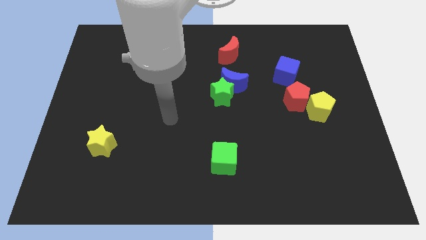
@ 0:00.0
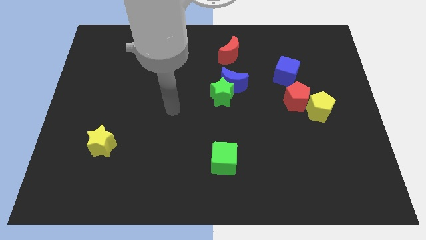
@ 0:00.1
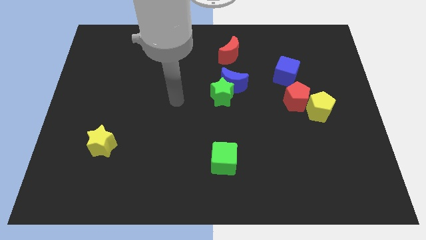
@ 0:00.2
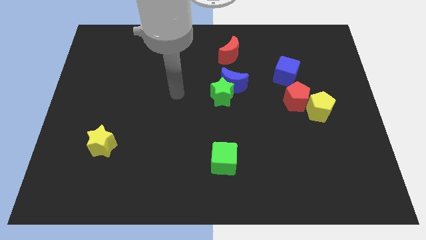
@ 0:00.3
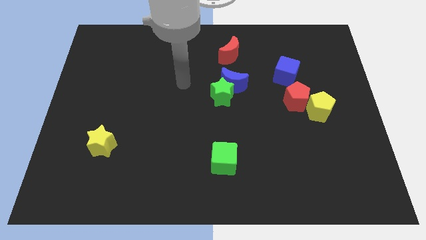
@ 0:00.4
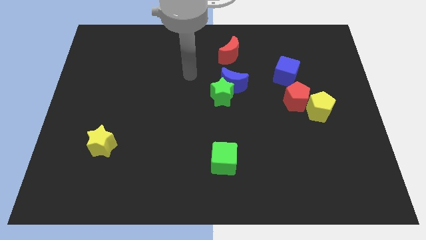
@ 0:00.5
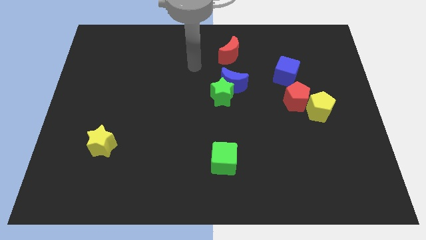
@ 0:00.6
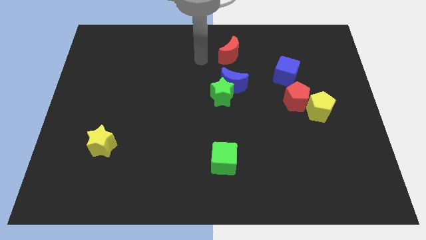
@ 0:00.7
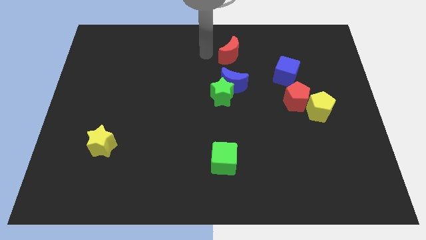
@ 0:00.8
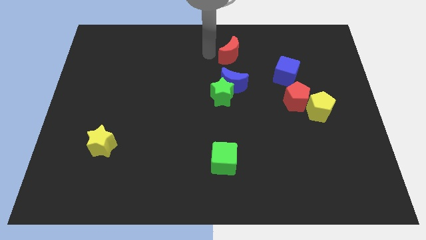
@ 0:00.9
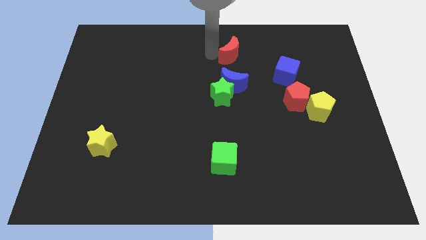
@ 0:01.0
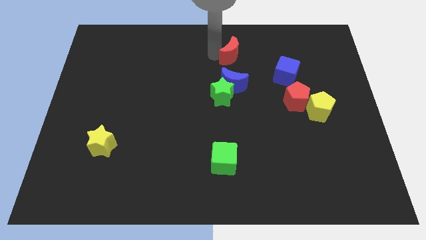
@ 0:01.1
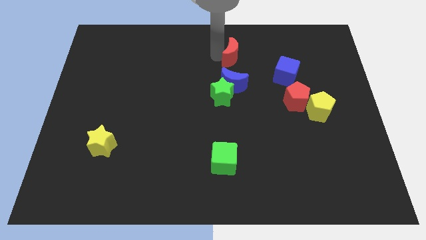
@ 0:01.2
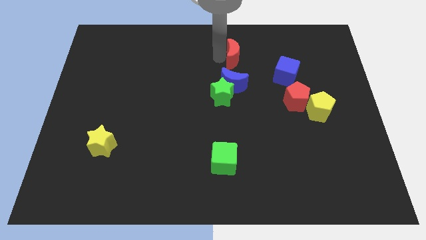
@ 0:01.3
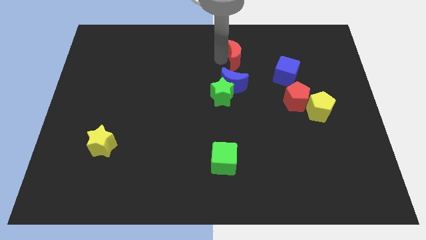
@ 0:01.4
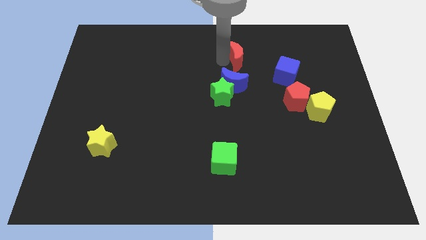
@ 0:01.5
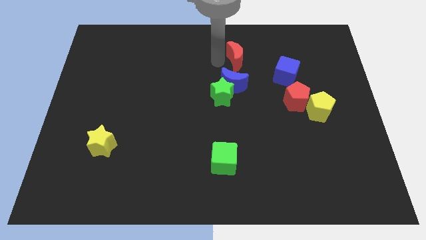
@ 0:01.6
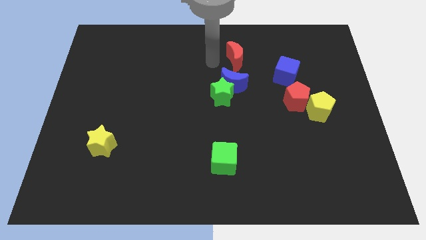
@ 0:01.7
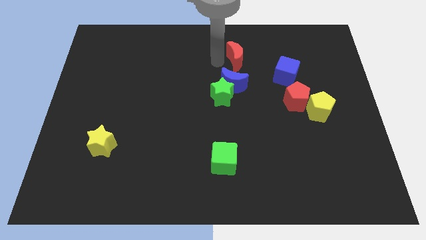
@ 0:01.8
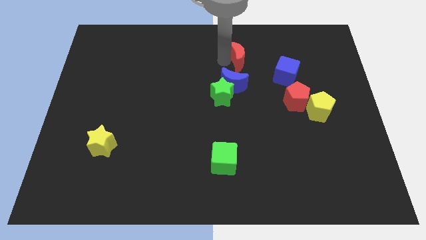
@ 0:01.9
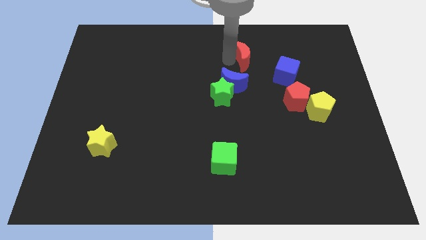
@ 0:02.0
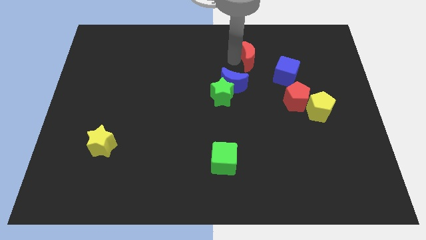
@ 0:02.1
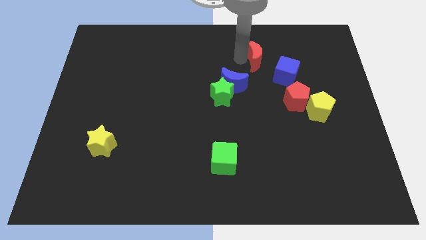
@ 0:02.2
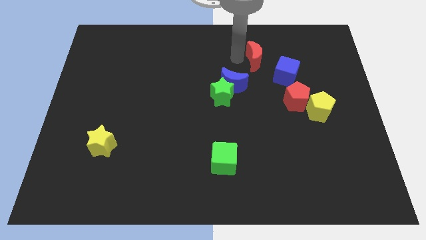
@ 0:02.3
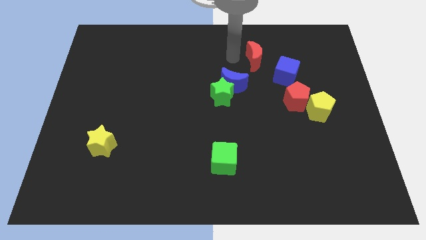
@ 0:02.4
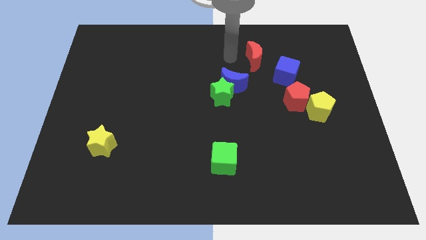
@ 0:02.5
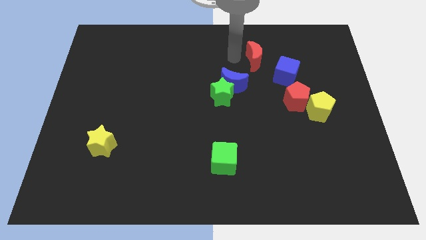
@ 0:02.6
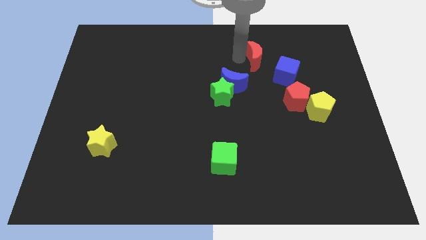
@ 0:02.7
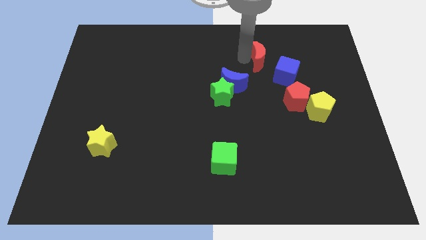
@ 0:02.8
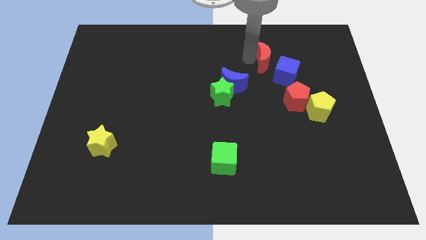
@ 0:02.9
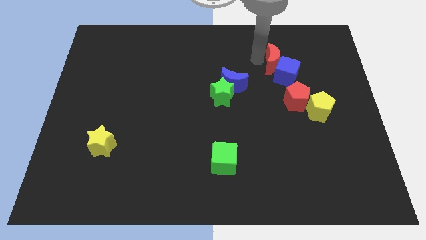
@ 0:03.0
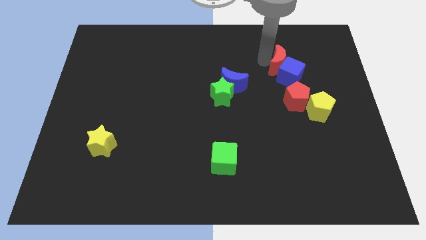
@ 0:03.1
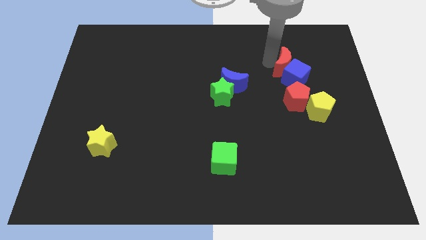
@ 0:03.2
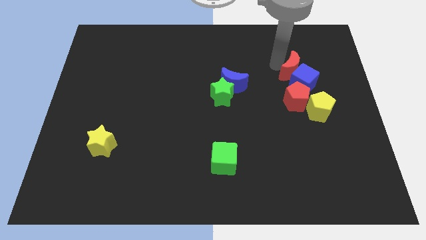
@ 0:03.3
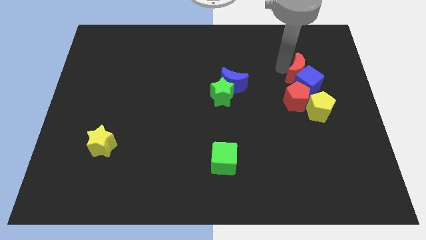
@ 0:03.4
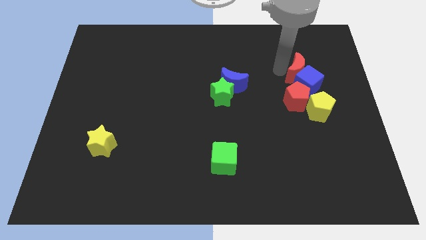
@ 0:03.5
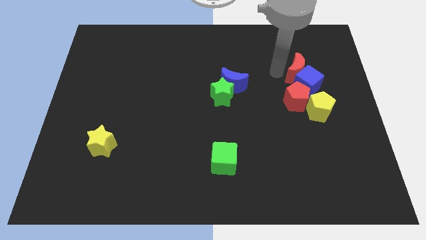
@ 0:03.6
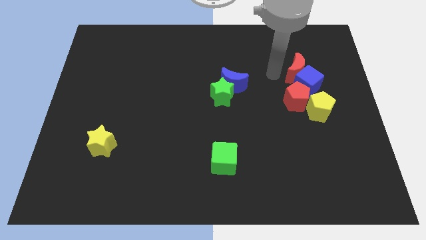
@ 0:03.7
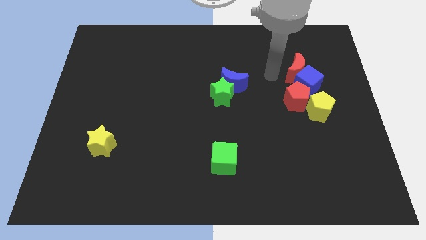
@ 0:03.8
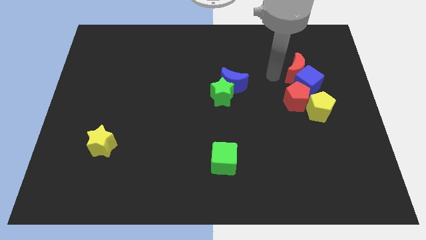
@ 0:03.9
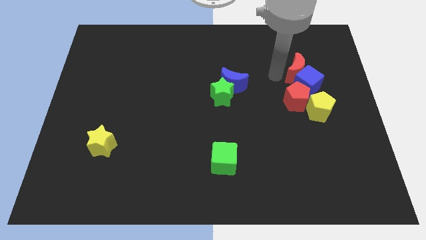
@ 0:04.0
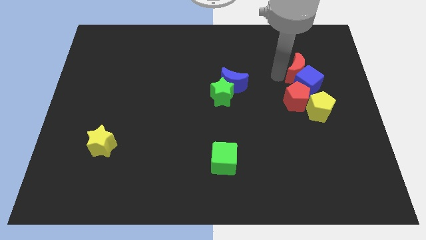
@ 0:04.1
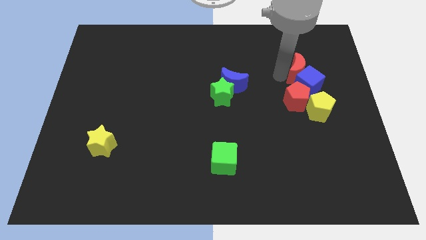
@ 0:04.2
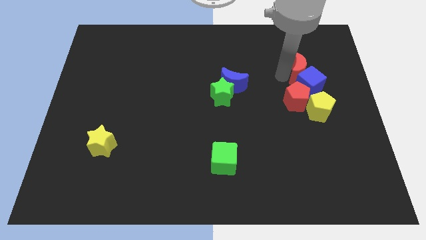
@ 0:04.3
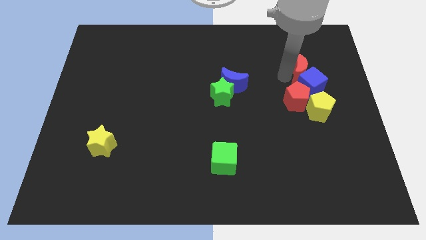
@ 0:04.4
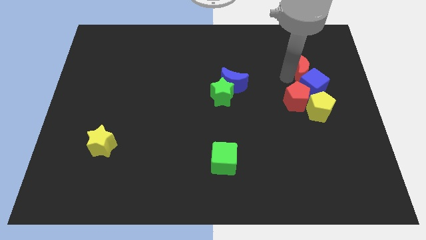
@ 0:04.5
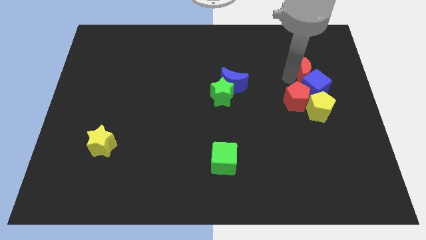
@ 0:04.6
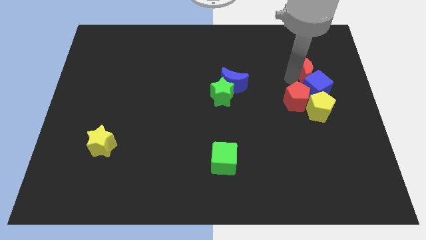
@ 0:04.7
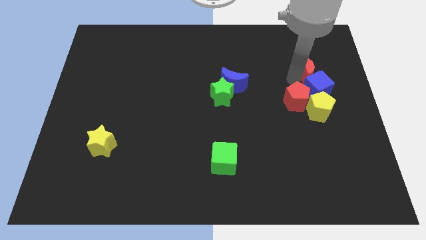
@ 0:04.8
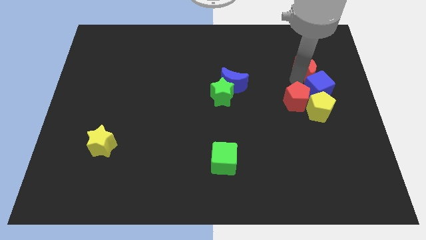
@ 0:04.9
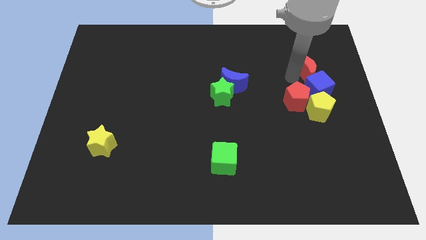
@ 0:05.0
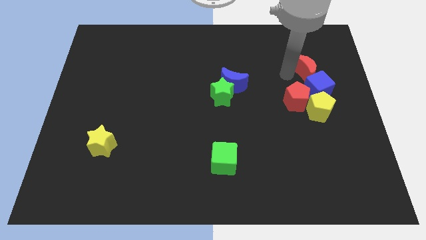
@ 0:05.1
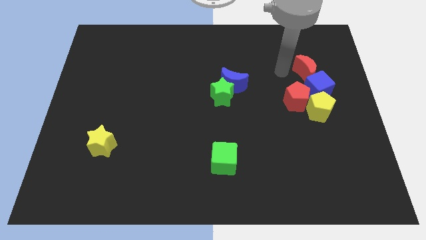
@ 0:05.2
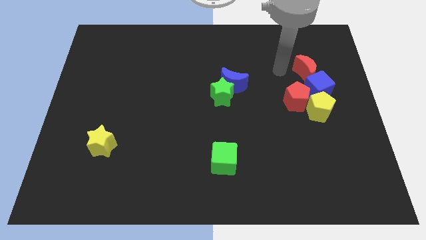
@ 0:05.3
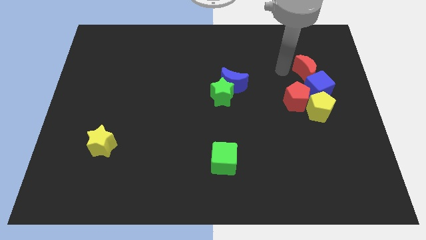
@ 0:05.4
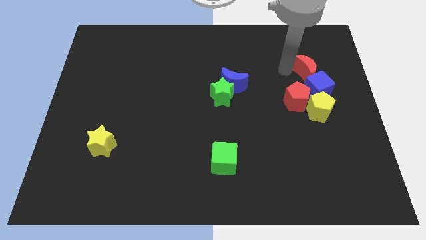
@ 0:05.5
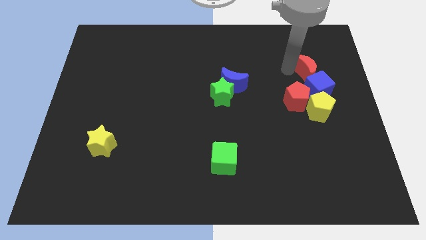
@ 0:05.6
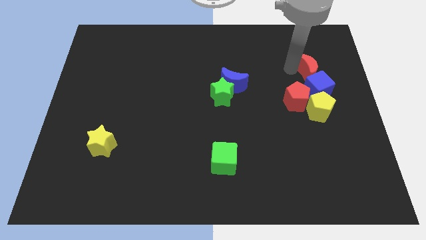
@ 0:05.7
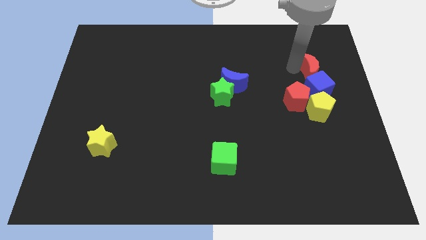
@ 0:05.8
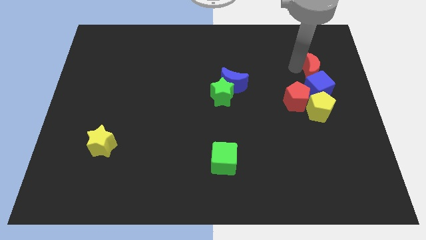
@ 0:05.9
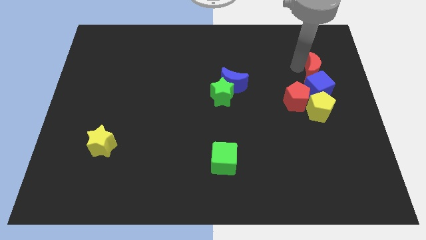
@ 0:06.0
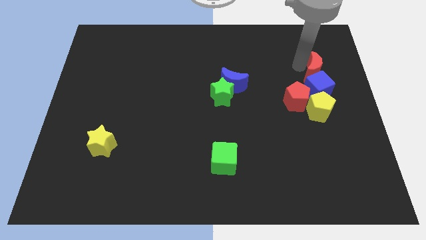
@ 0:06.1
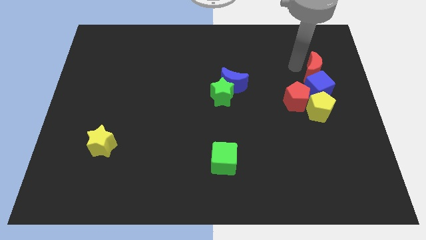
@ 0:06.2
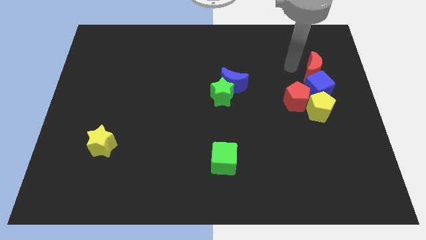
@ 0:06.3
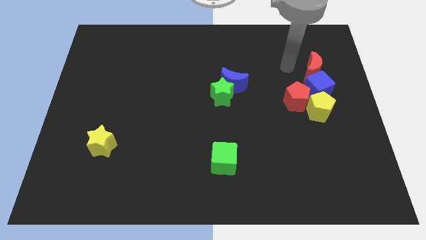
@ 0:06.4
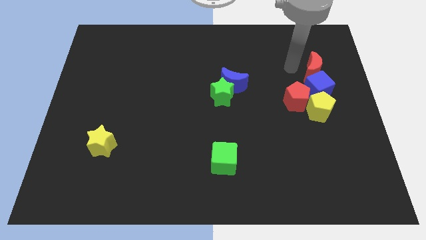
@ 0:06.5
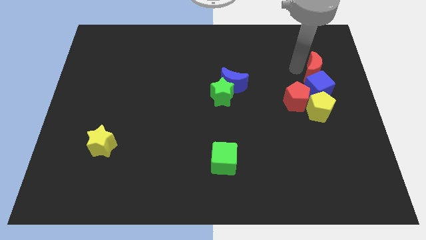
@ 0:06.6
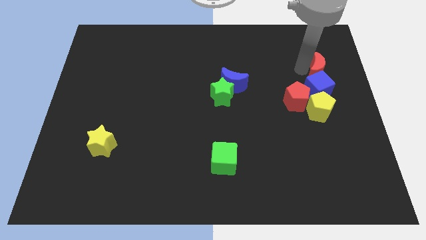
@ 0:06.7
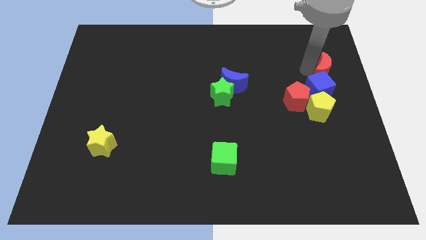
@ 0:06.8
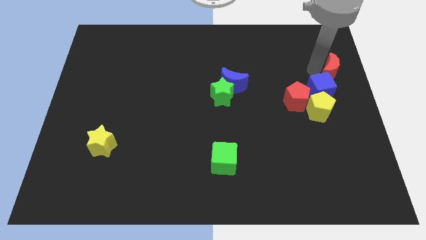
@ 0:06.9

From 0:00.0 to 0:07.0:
push the red moon to the center right
